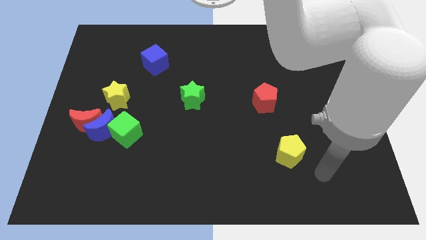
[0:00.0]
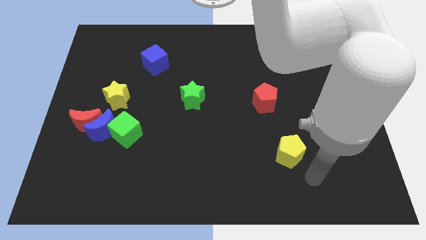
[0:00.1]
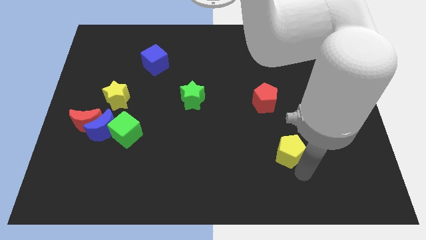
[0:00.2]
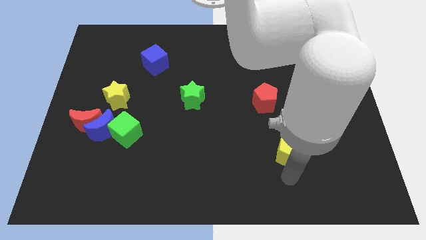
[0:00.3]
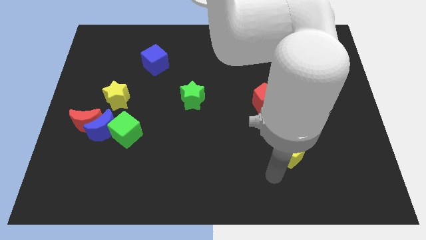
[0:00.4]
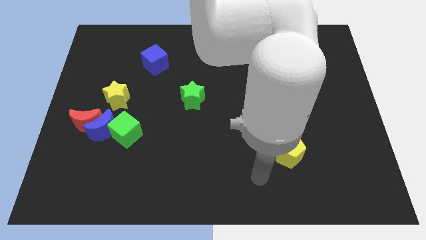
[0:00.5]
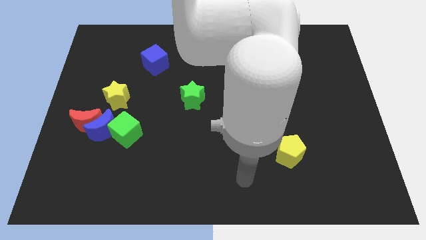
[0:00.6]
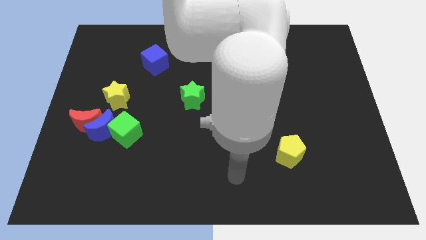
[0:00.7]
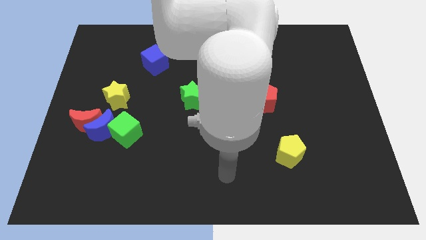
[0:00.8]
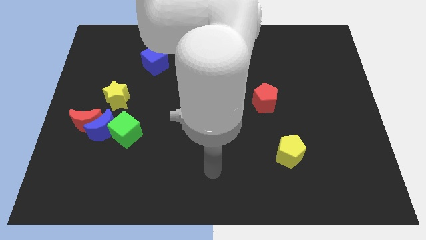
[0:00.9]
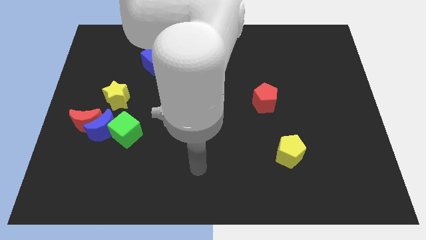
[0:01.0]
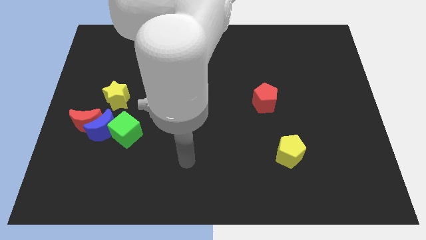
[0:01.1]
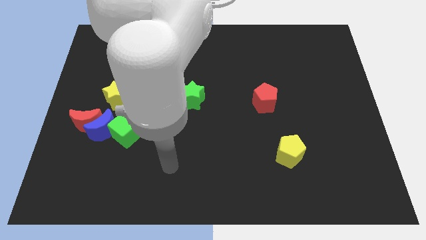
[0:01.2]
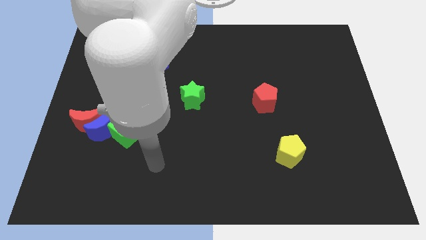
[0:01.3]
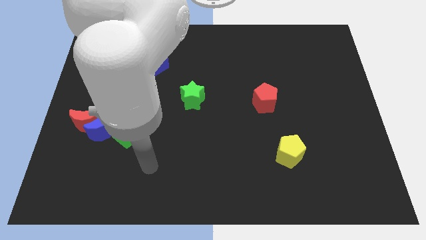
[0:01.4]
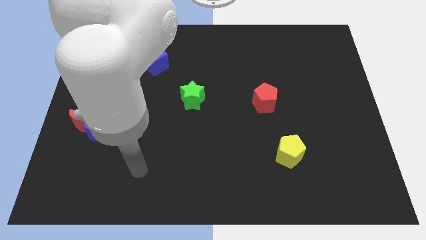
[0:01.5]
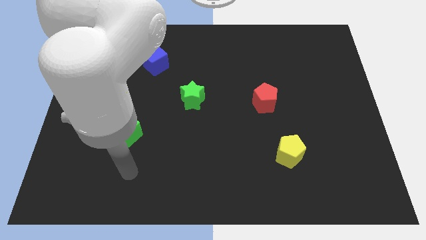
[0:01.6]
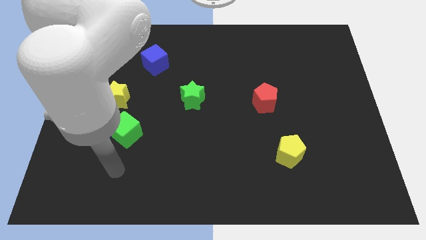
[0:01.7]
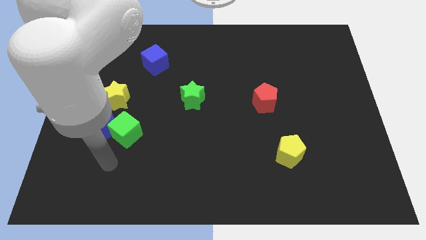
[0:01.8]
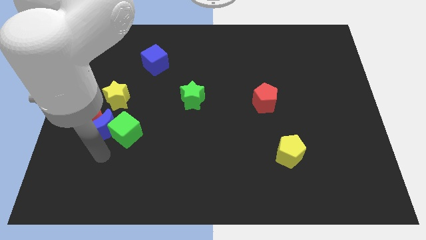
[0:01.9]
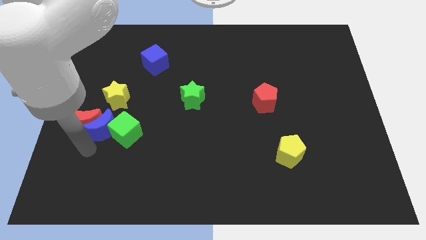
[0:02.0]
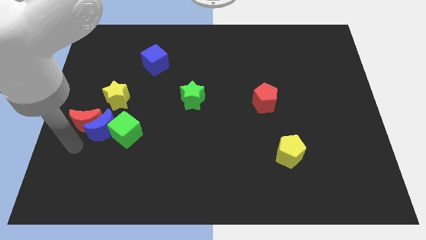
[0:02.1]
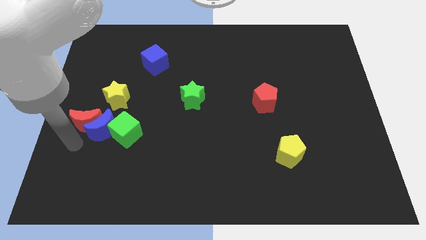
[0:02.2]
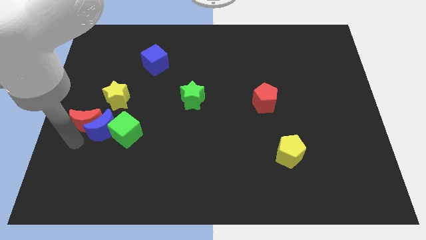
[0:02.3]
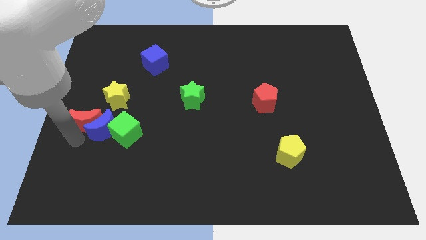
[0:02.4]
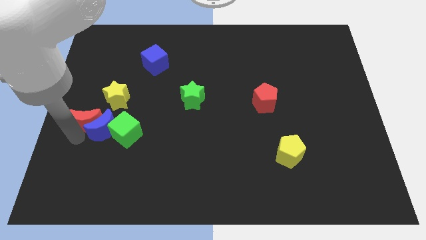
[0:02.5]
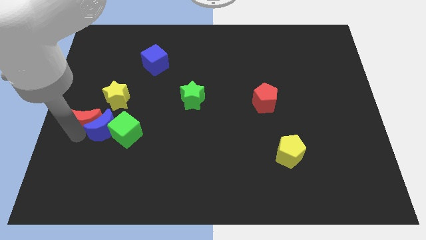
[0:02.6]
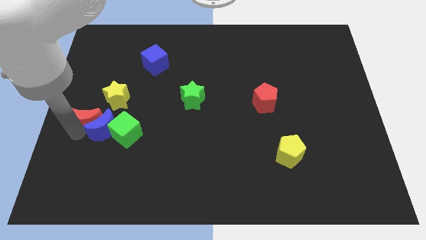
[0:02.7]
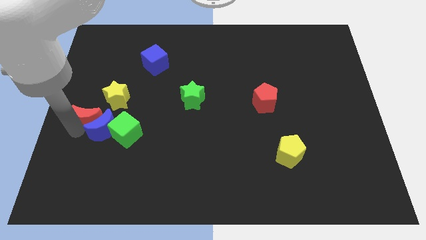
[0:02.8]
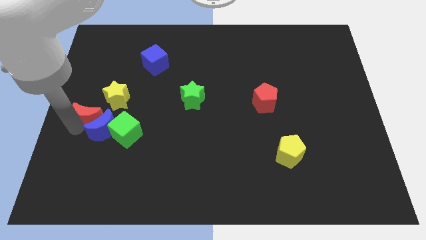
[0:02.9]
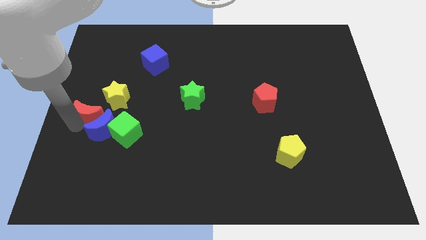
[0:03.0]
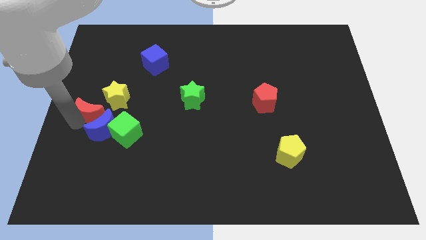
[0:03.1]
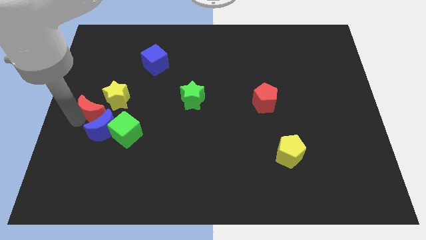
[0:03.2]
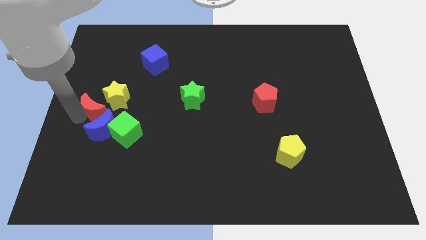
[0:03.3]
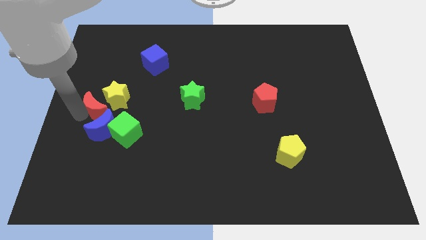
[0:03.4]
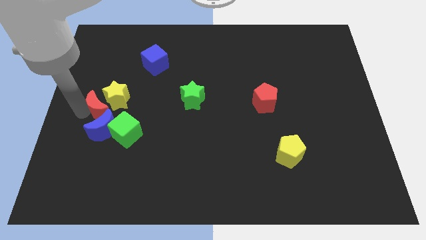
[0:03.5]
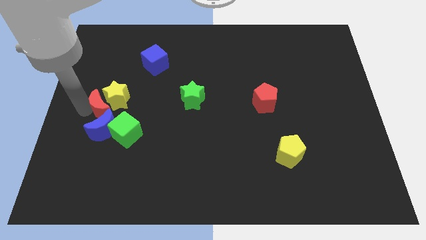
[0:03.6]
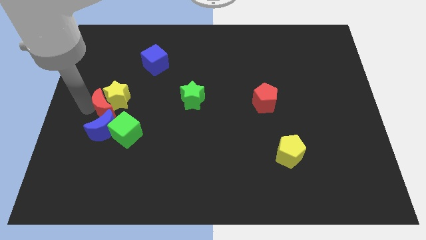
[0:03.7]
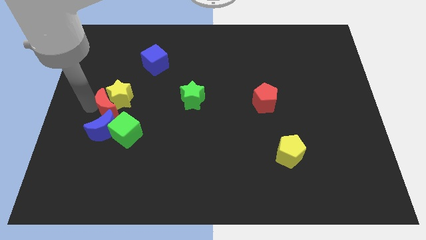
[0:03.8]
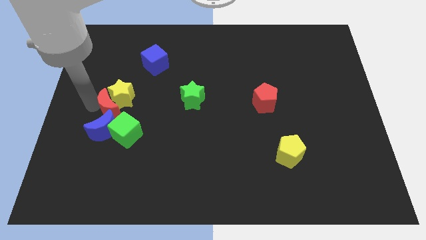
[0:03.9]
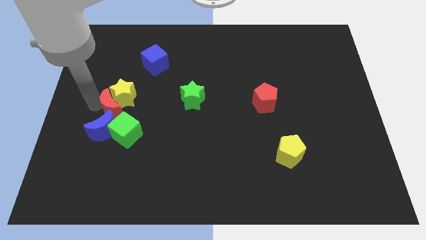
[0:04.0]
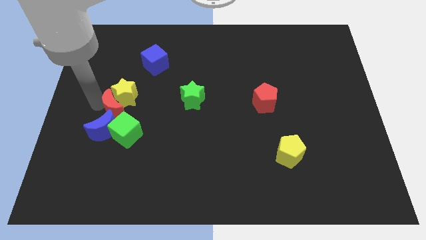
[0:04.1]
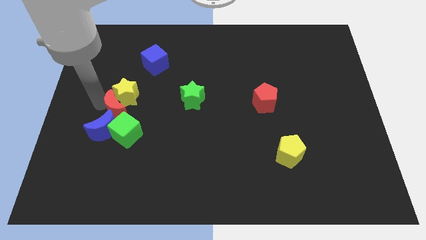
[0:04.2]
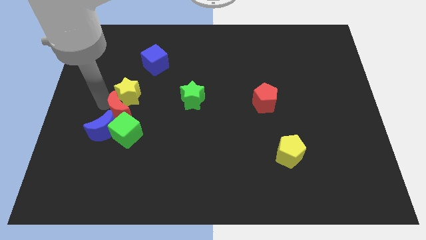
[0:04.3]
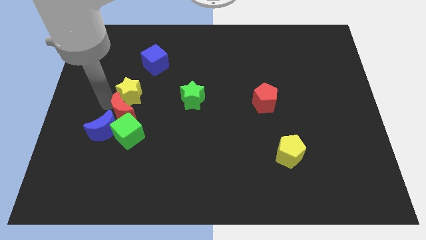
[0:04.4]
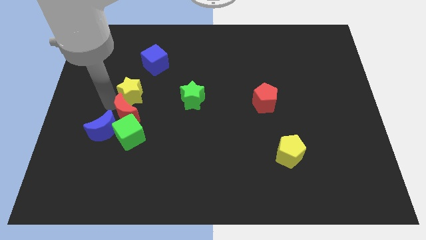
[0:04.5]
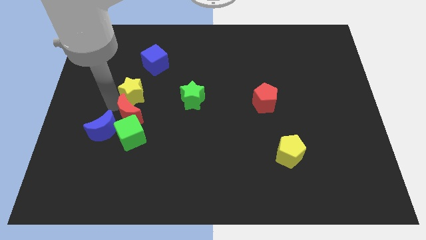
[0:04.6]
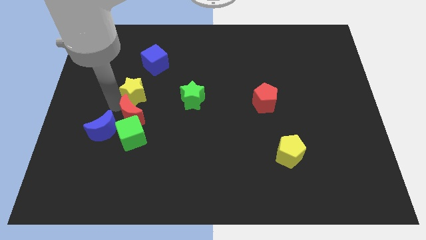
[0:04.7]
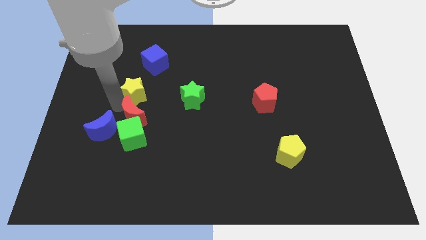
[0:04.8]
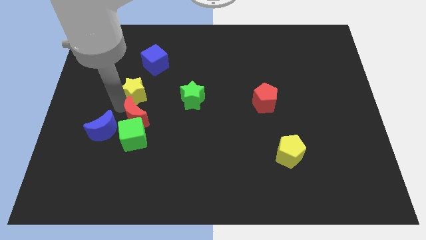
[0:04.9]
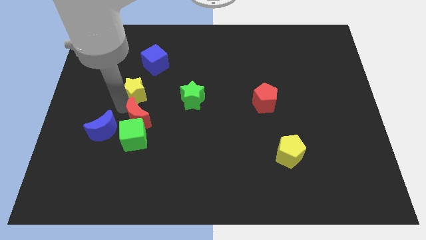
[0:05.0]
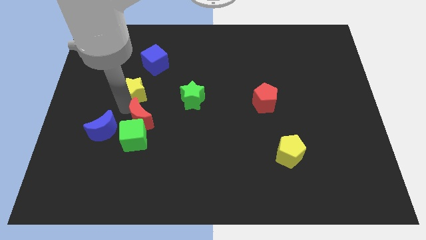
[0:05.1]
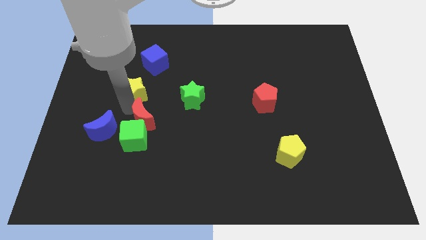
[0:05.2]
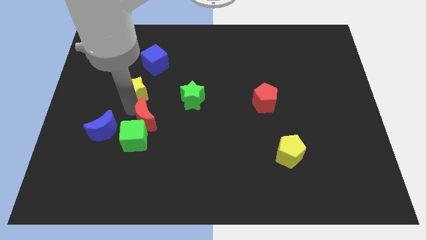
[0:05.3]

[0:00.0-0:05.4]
move the red moon to the bottom left of the green star

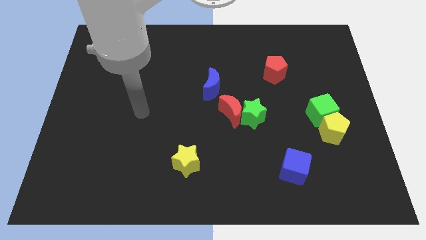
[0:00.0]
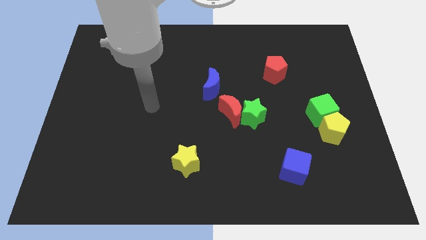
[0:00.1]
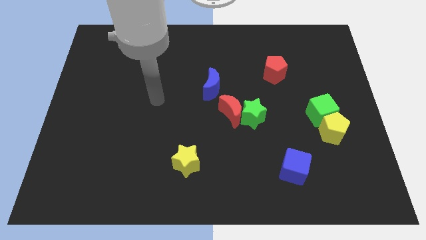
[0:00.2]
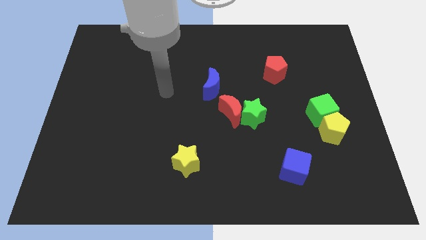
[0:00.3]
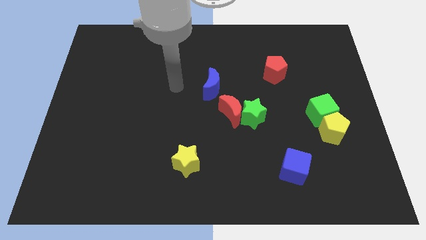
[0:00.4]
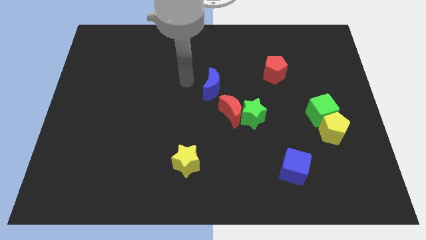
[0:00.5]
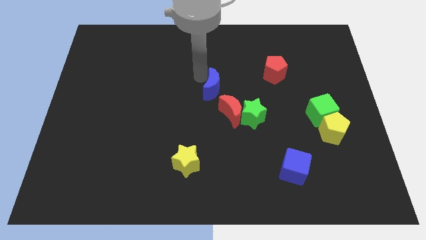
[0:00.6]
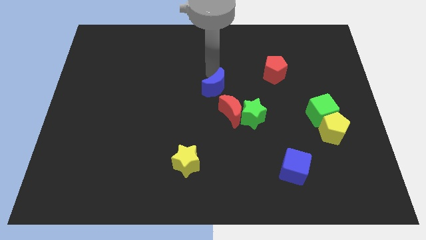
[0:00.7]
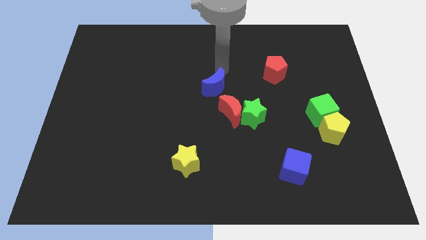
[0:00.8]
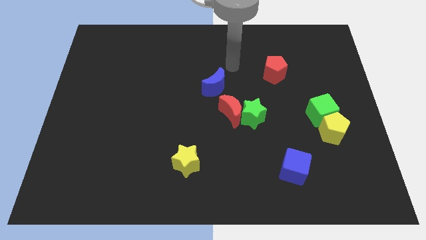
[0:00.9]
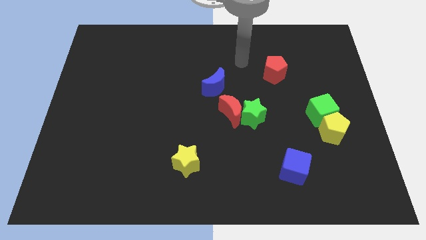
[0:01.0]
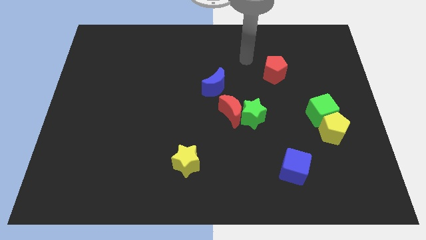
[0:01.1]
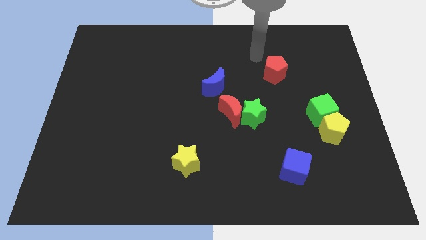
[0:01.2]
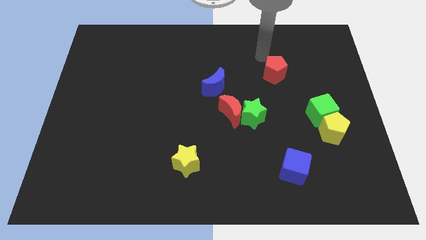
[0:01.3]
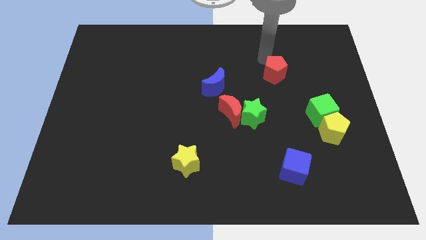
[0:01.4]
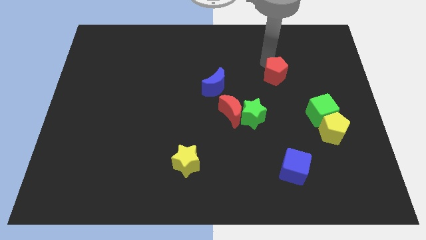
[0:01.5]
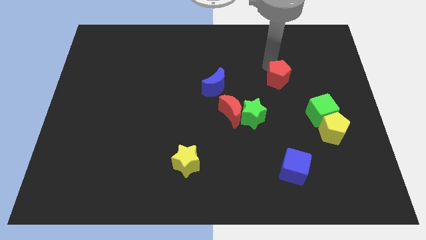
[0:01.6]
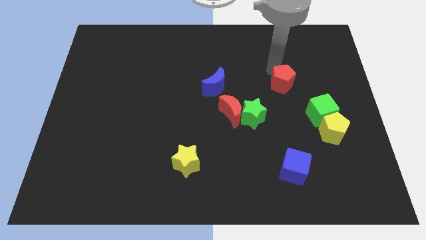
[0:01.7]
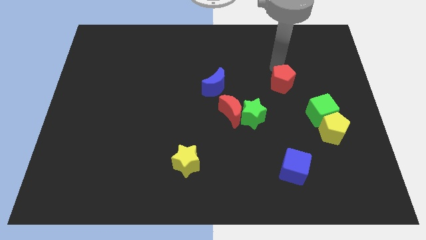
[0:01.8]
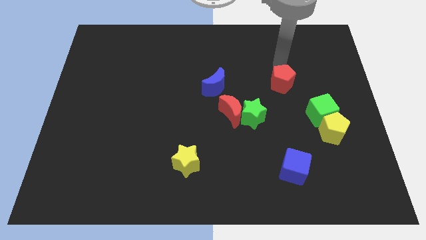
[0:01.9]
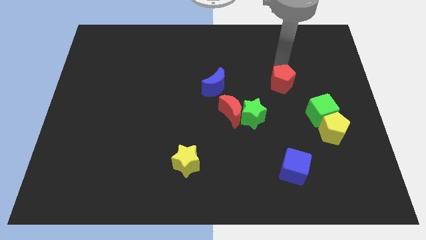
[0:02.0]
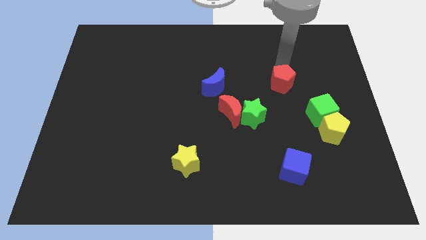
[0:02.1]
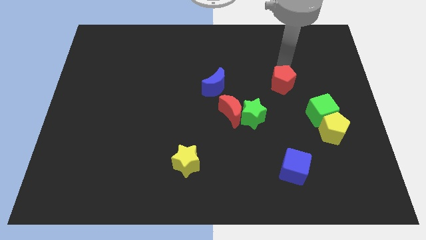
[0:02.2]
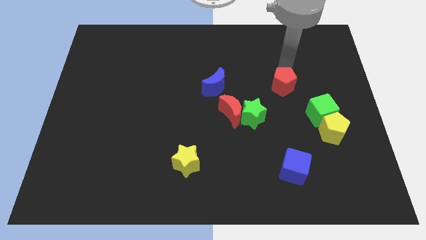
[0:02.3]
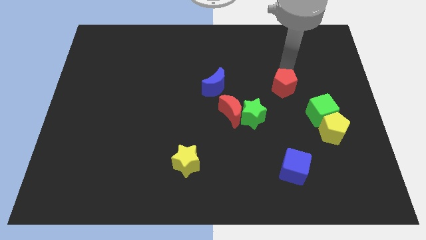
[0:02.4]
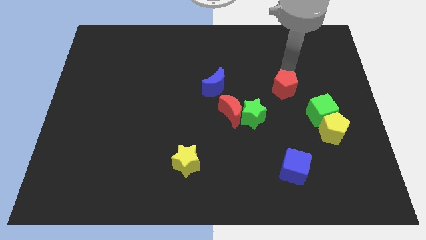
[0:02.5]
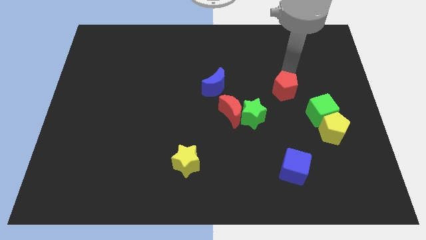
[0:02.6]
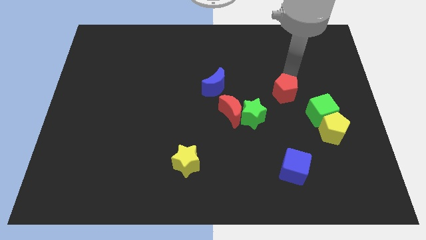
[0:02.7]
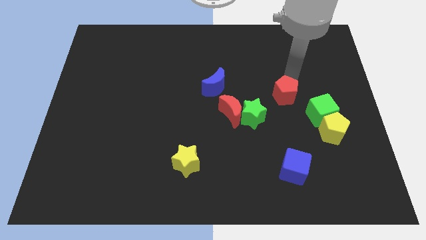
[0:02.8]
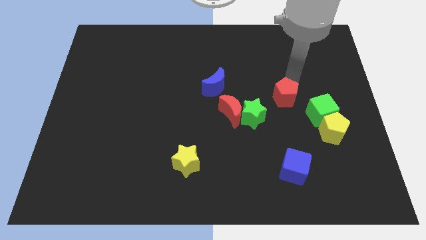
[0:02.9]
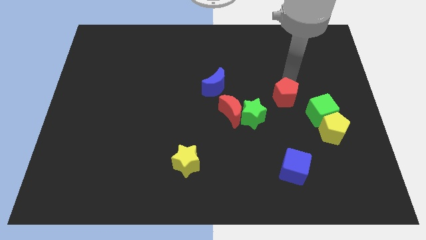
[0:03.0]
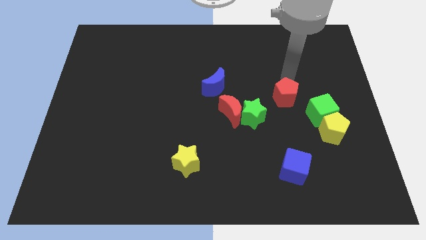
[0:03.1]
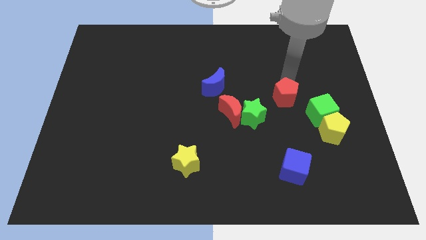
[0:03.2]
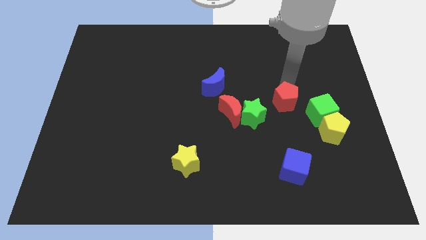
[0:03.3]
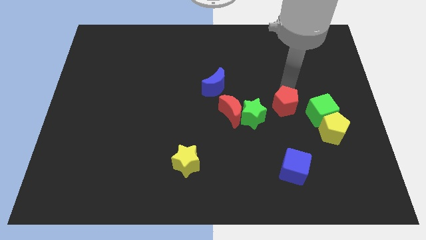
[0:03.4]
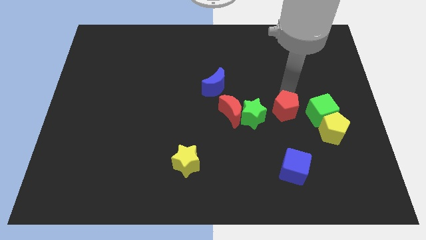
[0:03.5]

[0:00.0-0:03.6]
push the red pentagon to the top of the blue cube
